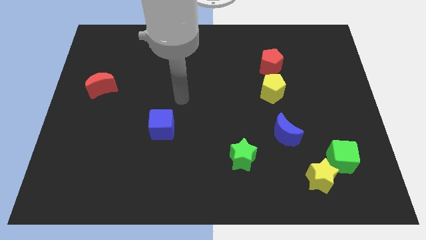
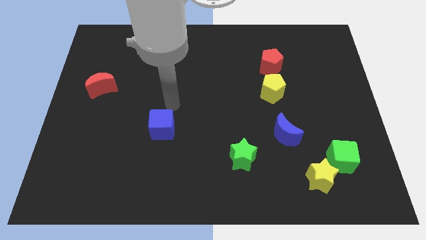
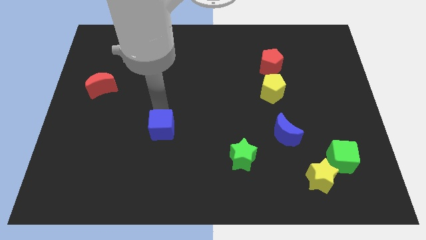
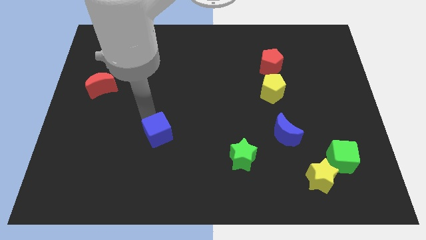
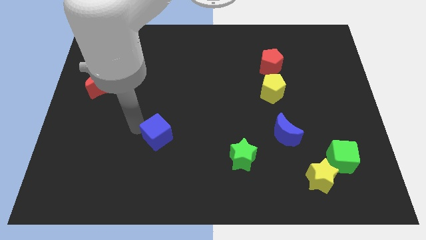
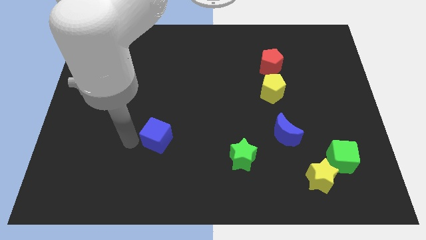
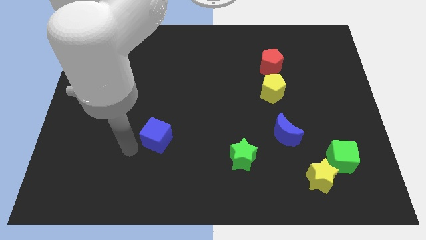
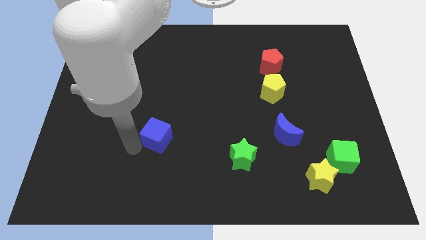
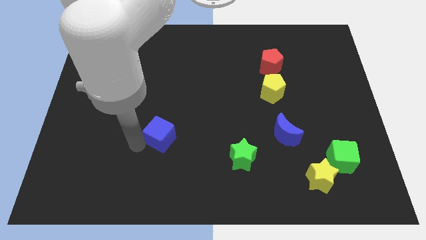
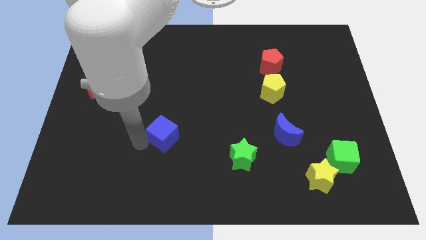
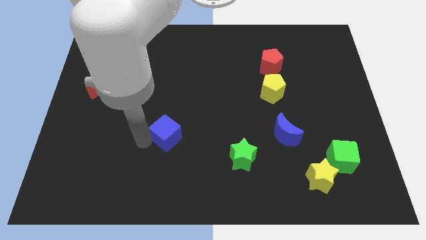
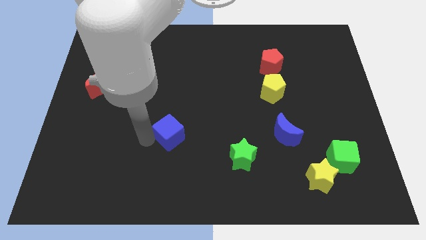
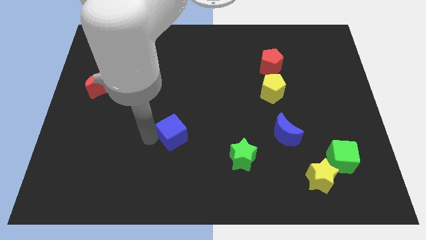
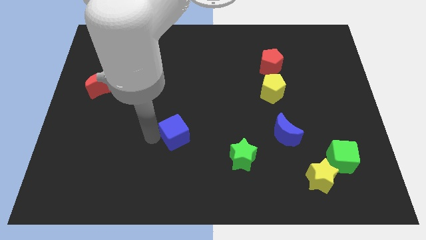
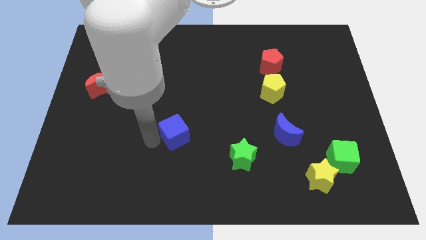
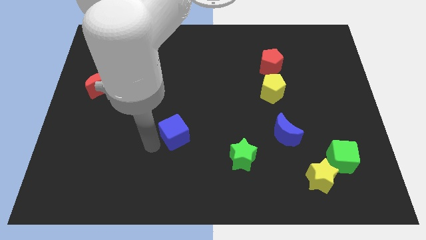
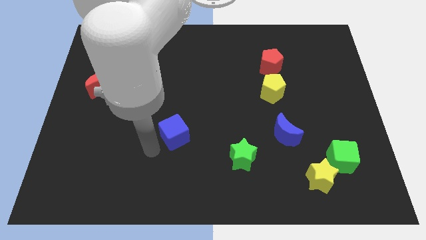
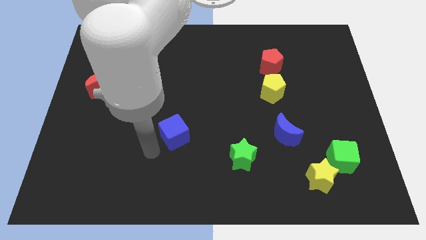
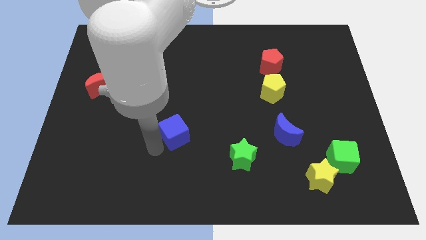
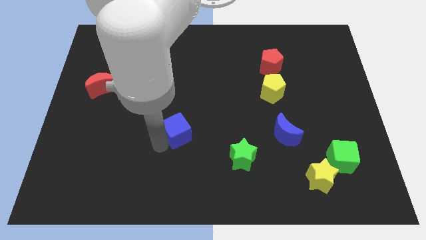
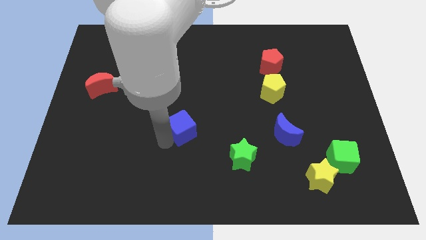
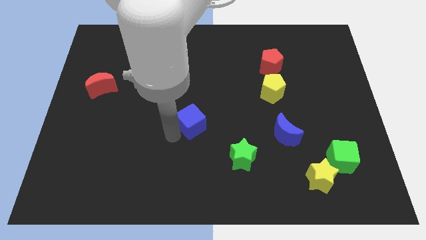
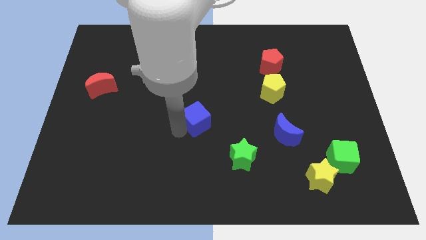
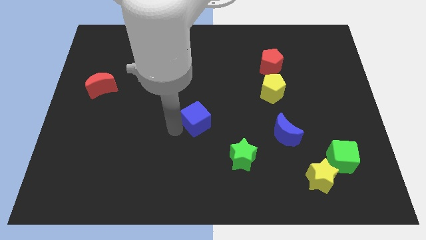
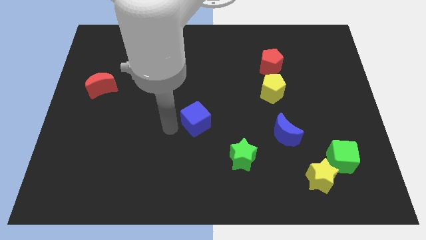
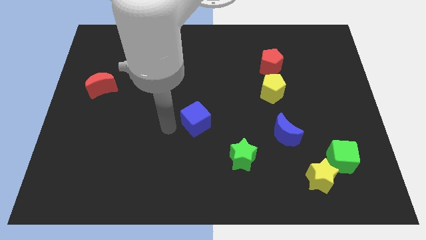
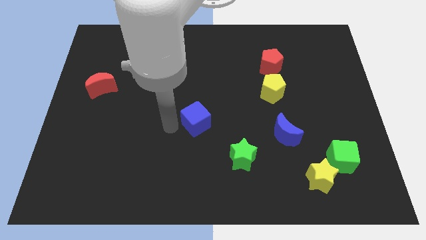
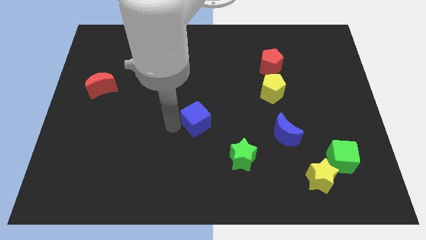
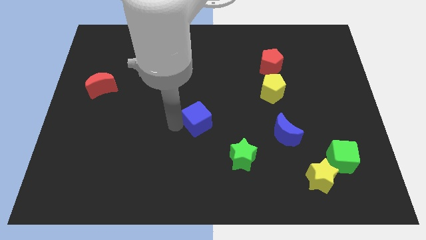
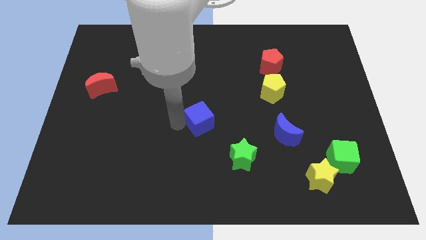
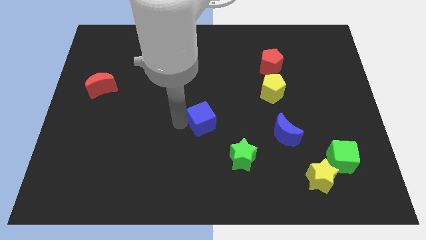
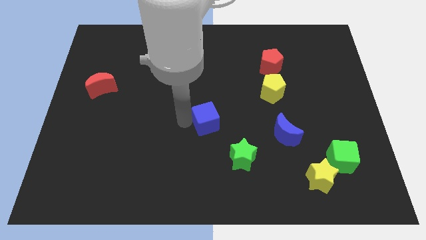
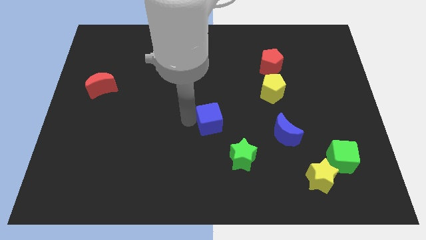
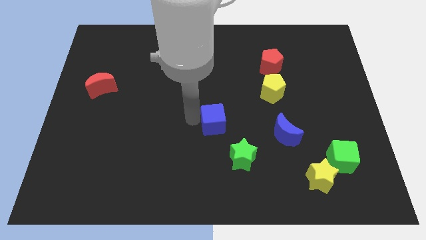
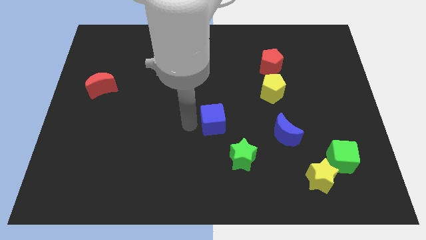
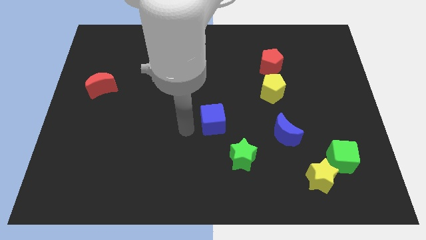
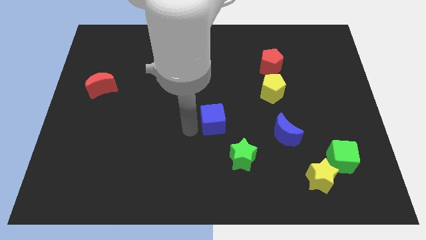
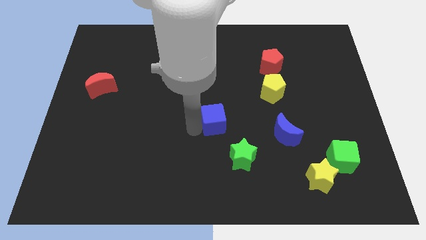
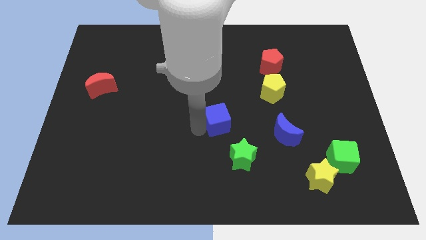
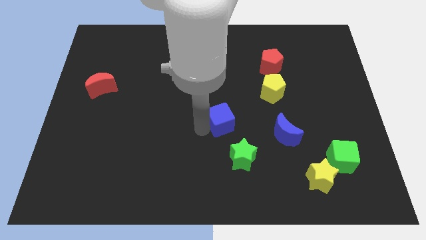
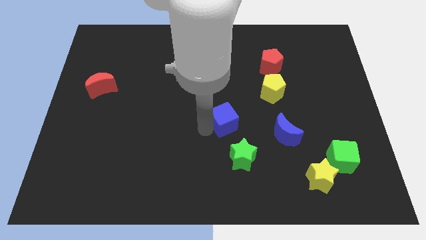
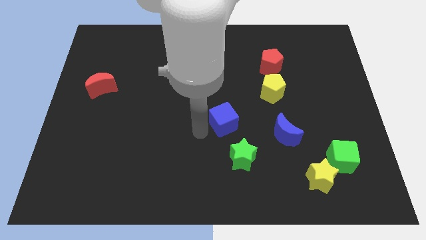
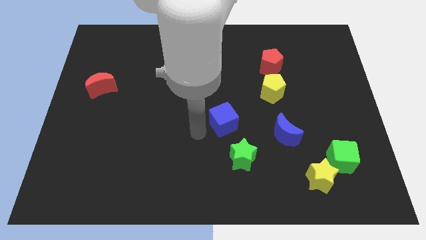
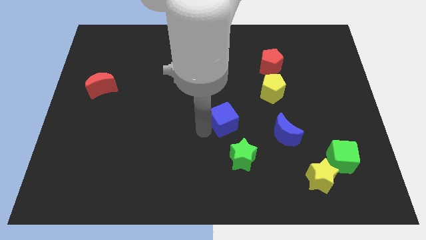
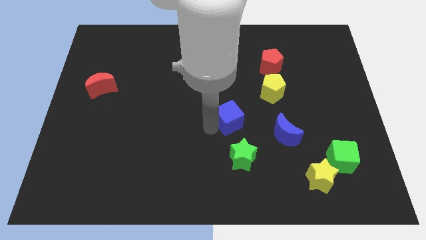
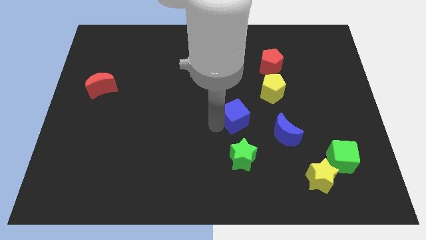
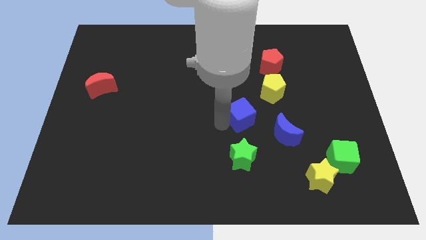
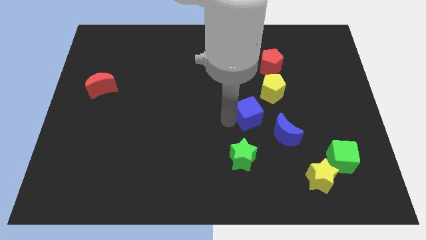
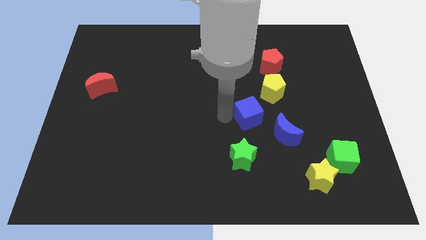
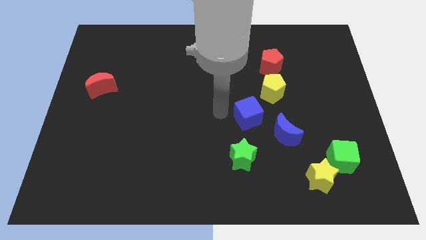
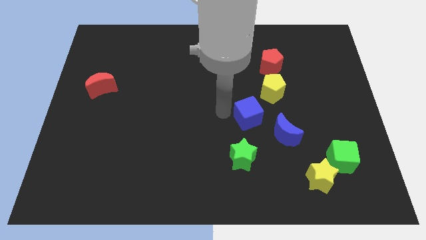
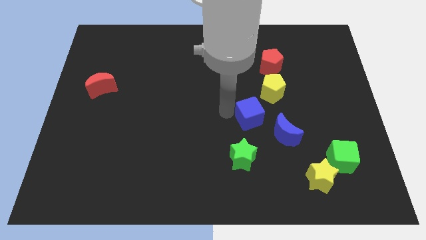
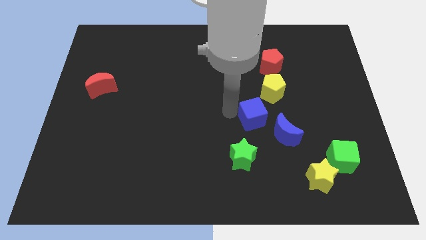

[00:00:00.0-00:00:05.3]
slide the blue cube right

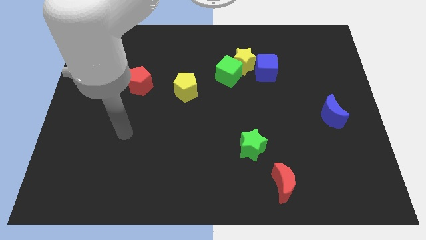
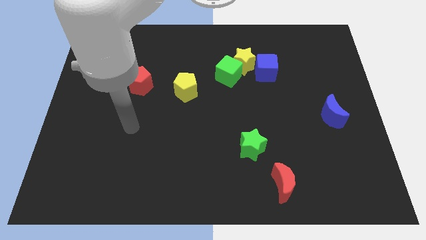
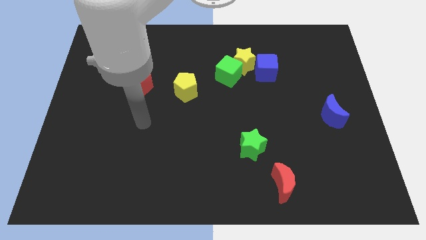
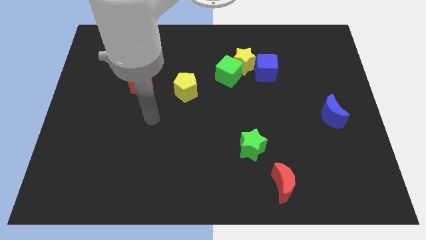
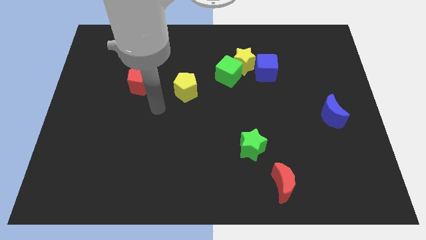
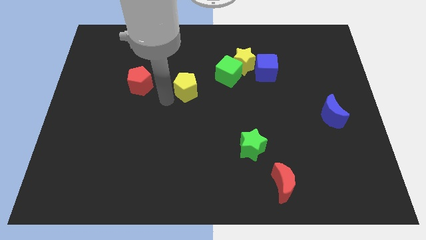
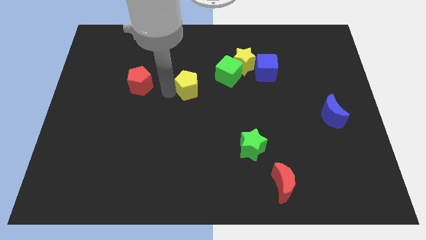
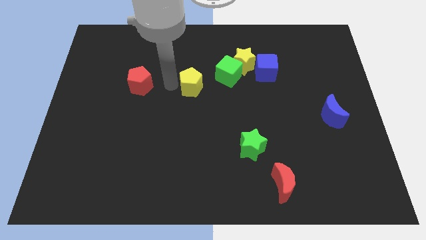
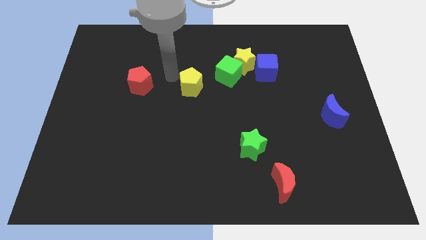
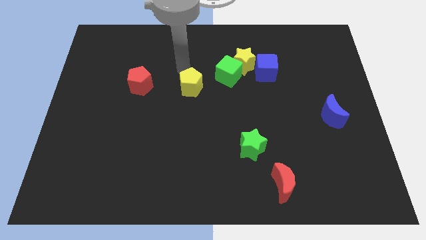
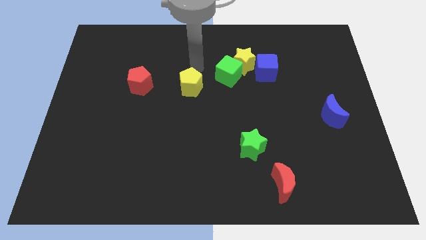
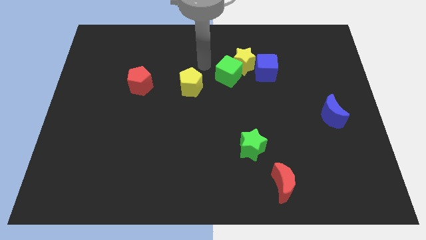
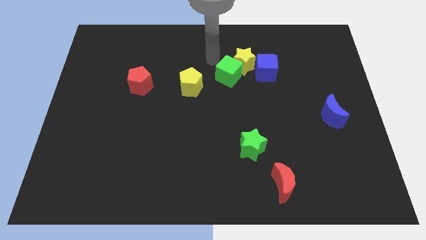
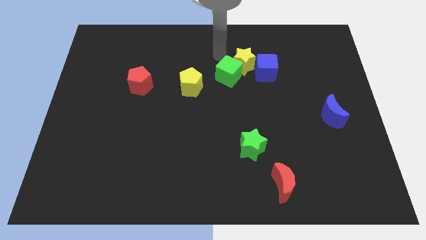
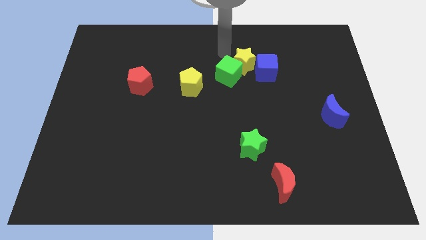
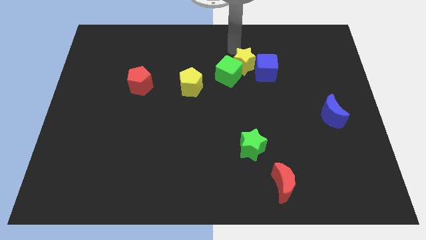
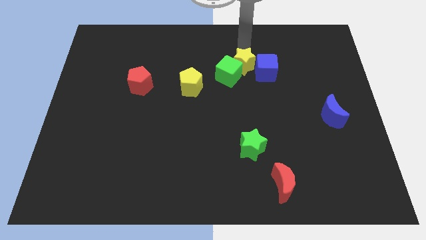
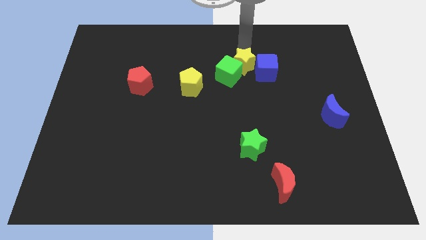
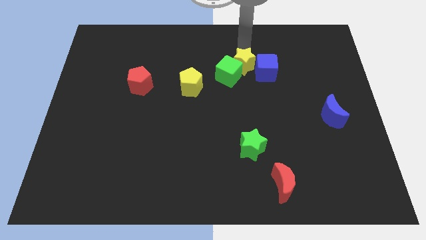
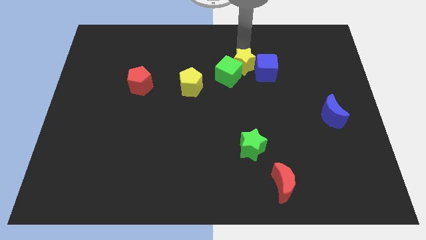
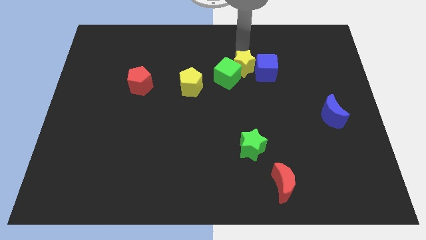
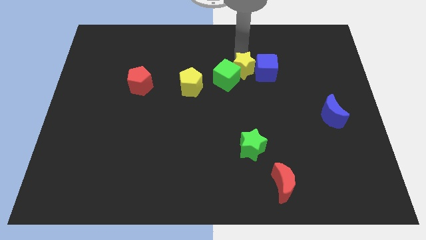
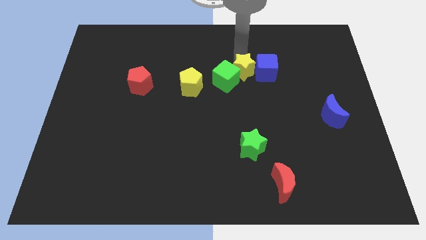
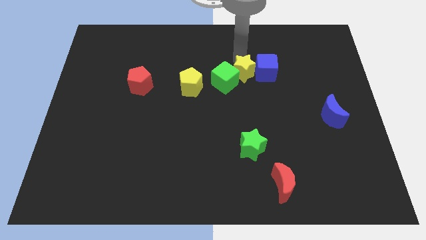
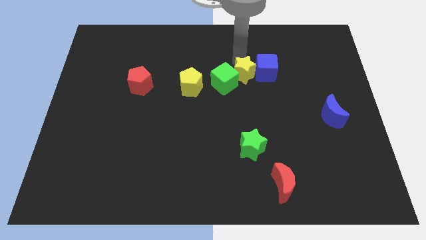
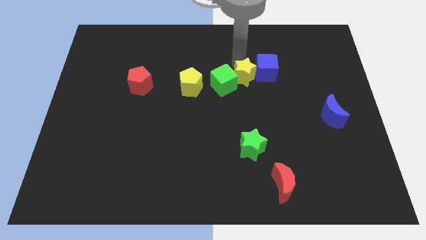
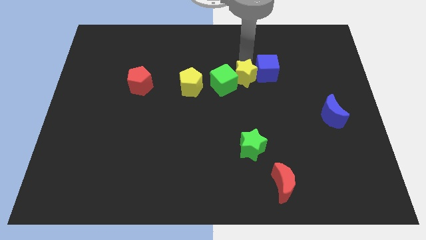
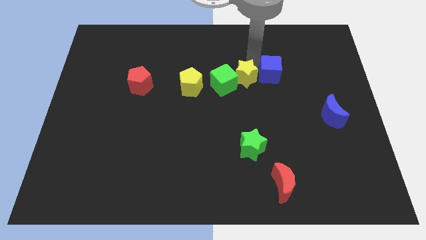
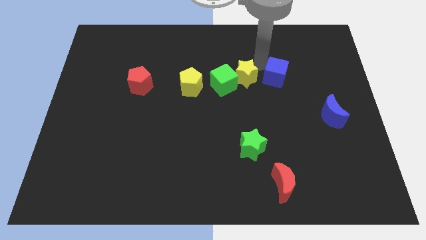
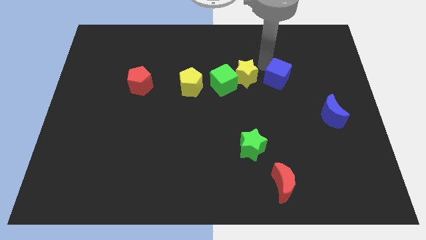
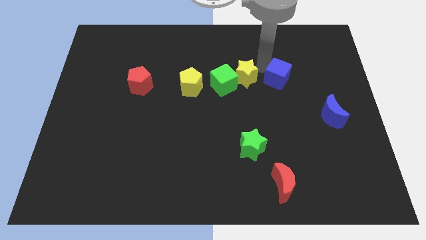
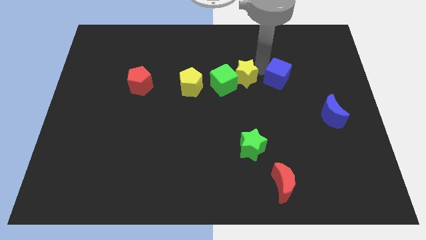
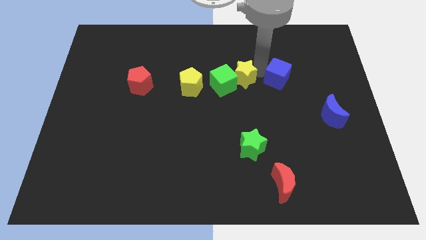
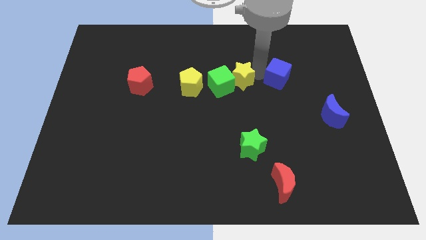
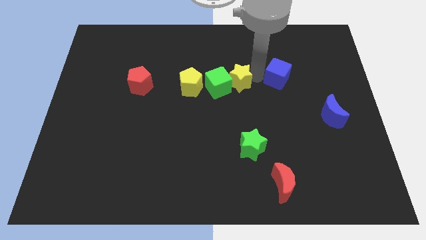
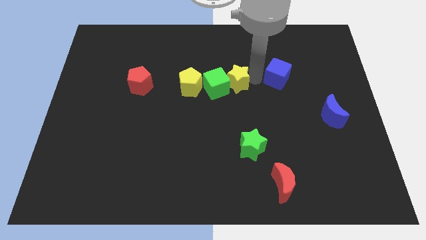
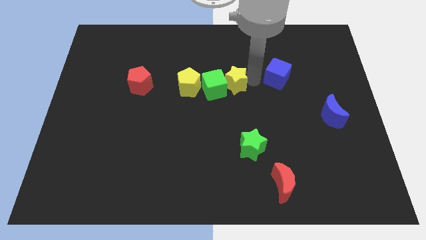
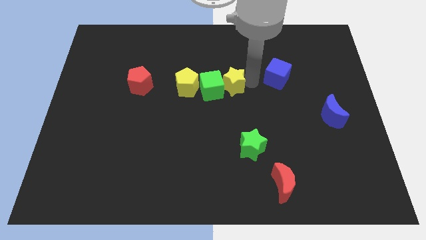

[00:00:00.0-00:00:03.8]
slide the yellow star a bit down and to the left
